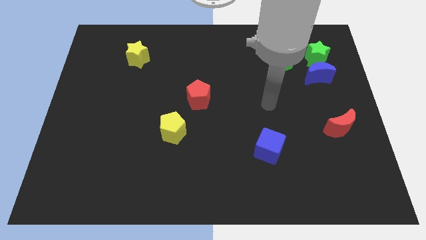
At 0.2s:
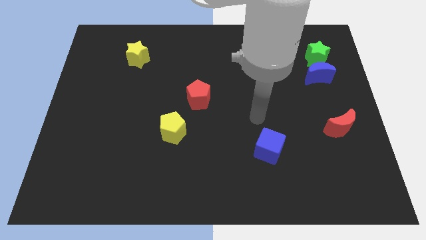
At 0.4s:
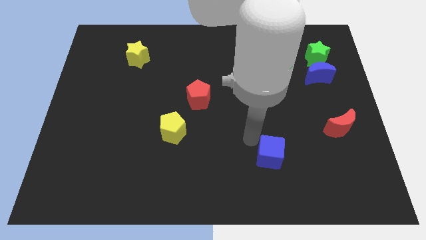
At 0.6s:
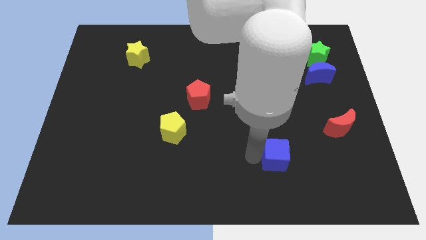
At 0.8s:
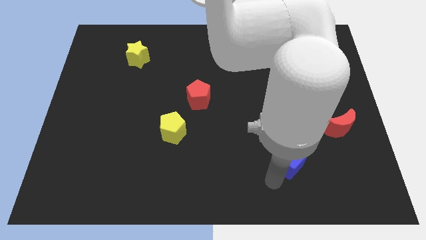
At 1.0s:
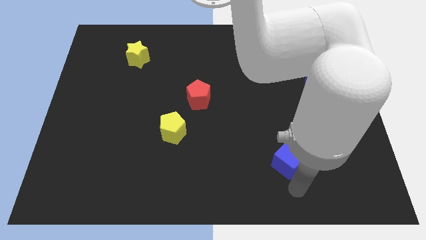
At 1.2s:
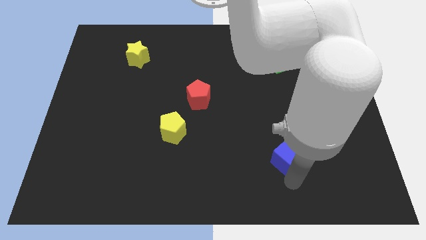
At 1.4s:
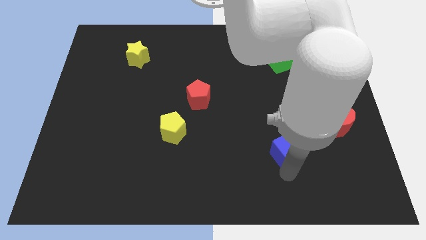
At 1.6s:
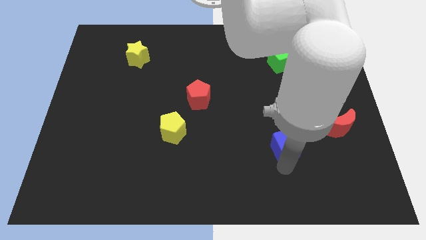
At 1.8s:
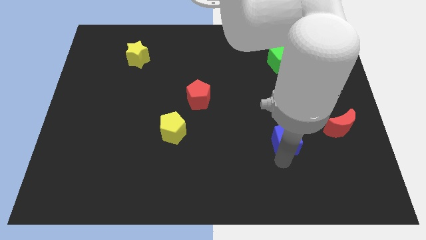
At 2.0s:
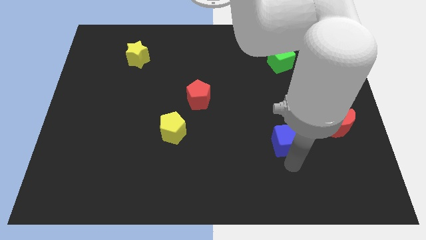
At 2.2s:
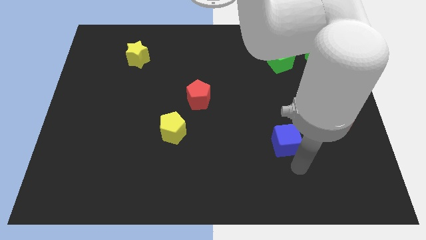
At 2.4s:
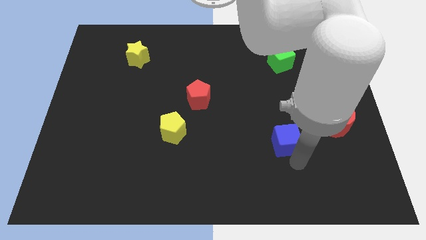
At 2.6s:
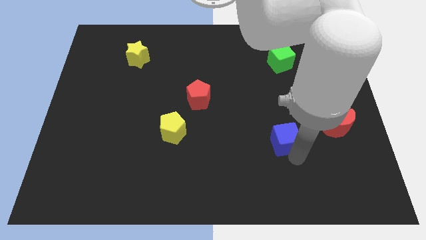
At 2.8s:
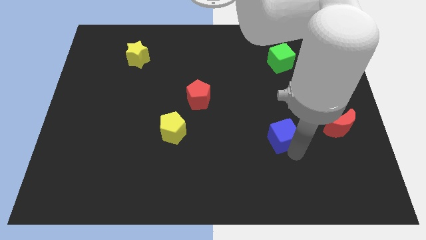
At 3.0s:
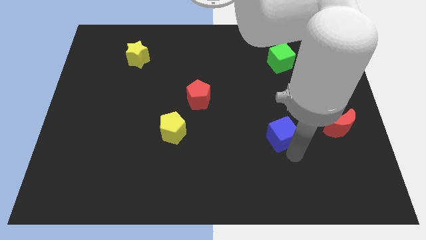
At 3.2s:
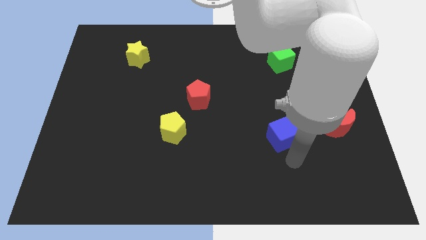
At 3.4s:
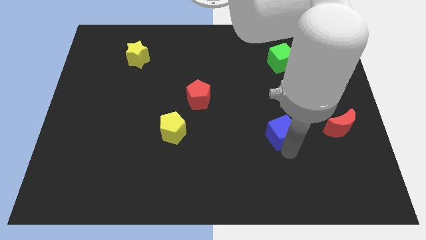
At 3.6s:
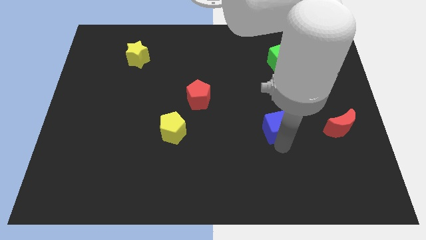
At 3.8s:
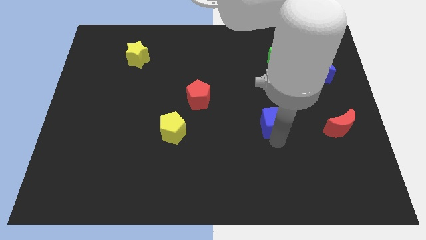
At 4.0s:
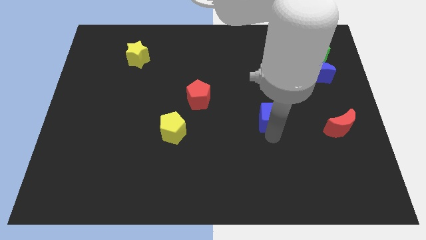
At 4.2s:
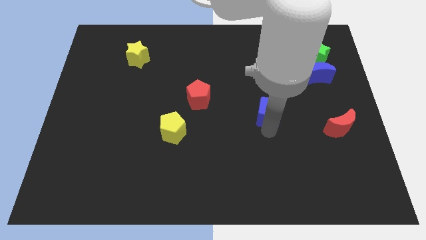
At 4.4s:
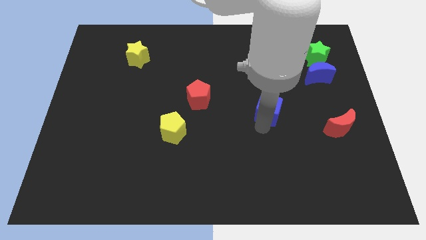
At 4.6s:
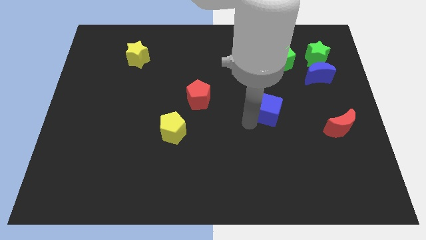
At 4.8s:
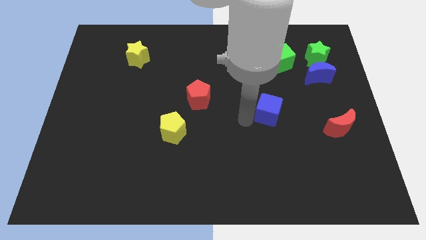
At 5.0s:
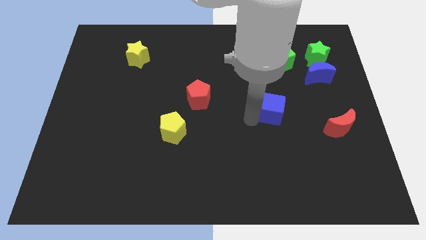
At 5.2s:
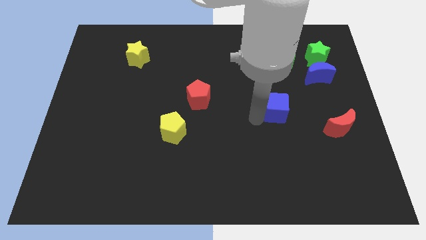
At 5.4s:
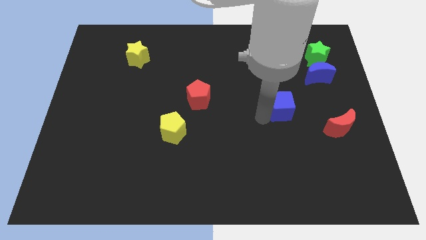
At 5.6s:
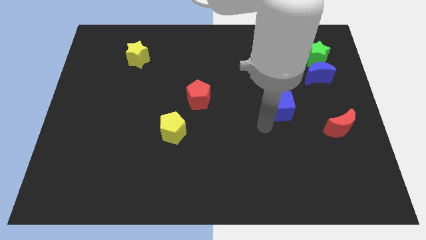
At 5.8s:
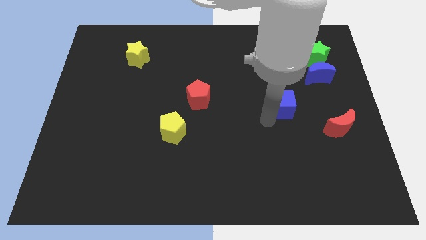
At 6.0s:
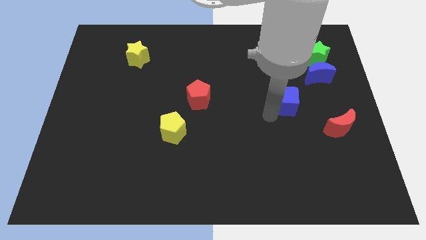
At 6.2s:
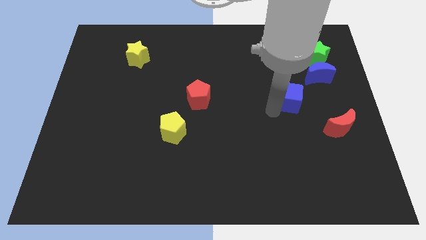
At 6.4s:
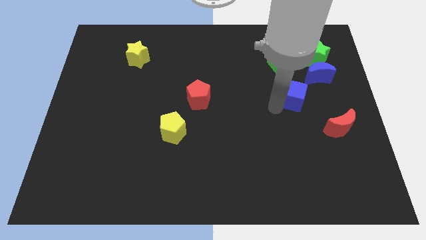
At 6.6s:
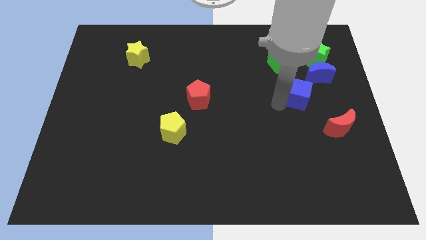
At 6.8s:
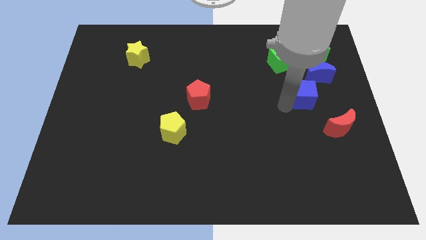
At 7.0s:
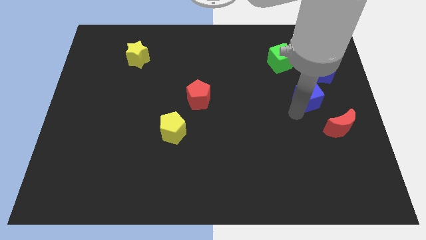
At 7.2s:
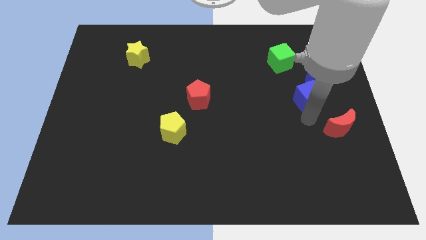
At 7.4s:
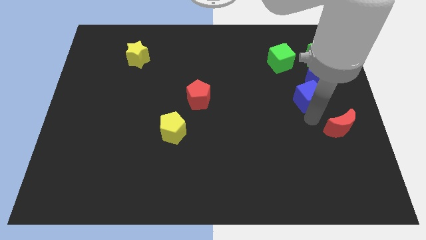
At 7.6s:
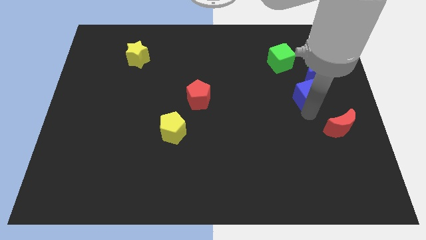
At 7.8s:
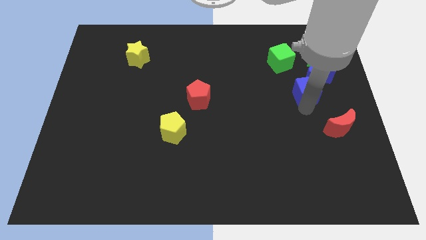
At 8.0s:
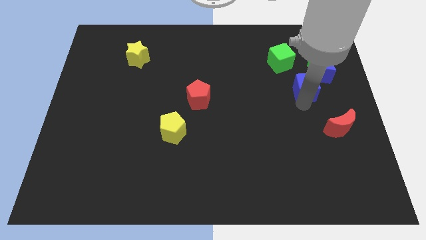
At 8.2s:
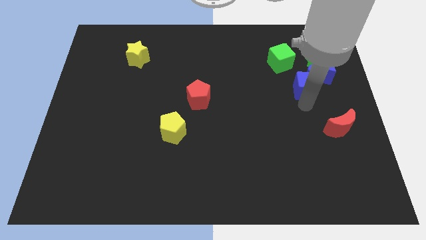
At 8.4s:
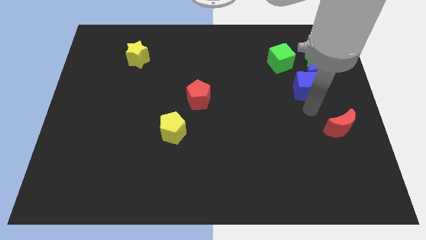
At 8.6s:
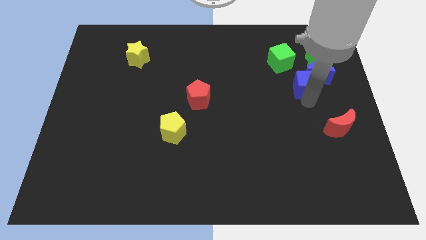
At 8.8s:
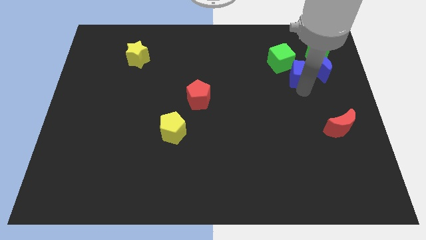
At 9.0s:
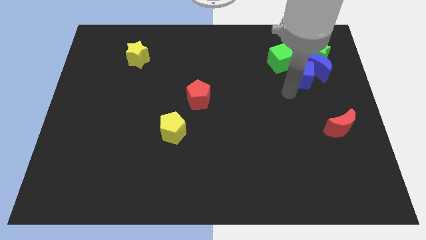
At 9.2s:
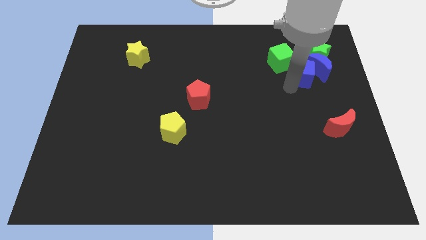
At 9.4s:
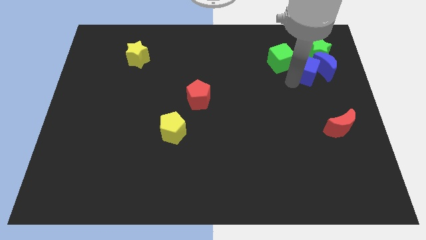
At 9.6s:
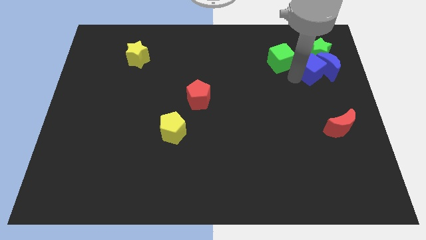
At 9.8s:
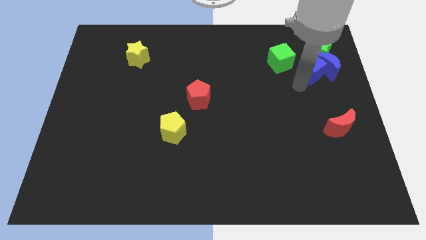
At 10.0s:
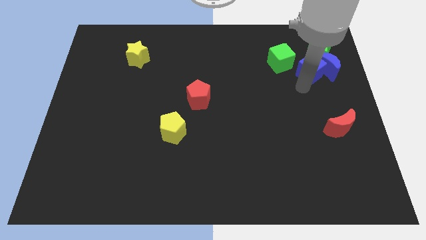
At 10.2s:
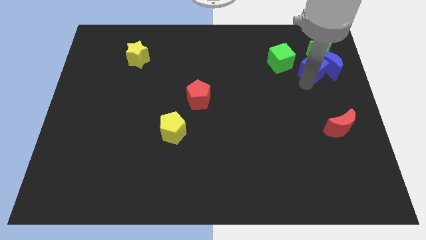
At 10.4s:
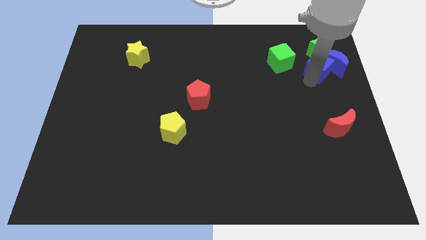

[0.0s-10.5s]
move the blue cube to the green star

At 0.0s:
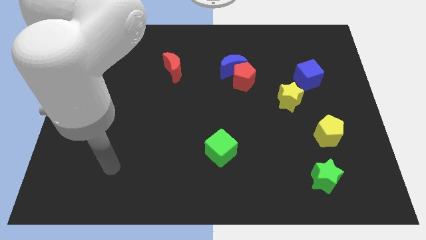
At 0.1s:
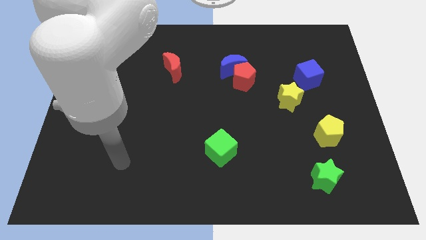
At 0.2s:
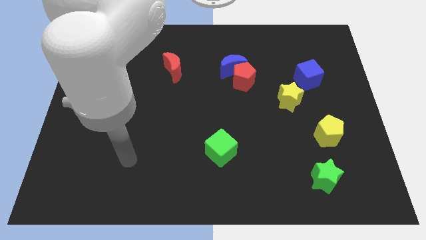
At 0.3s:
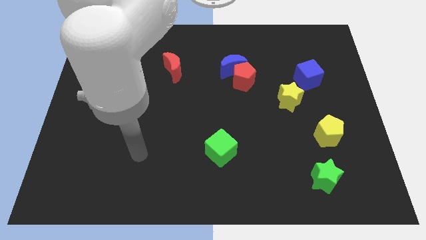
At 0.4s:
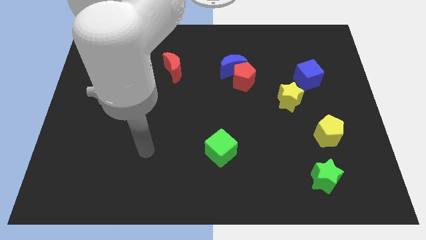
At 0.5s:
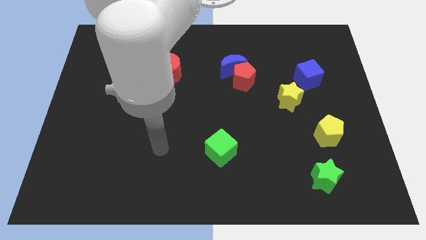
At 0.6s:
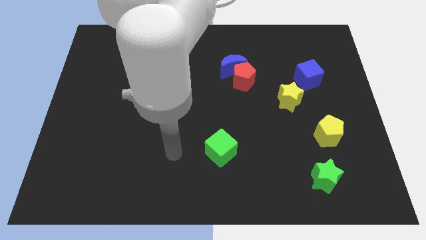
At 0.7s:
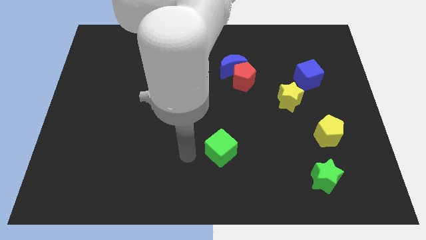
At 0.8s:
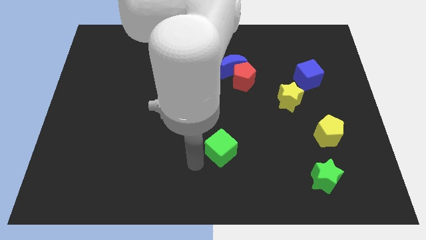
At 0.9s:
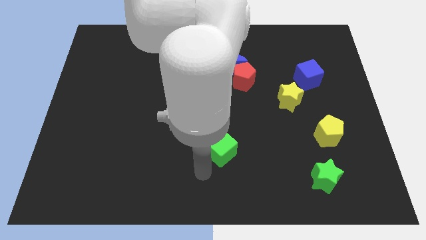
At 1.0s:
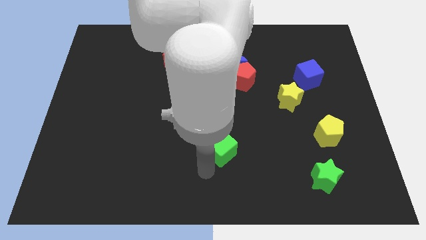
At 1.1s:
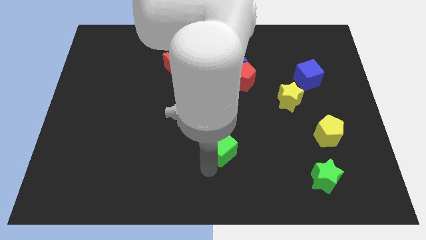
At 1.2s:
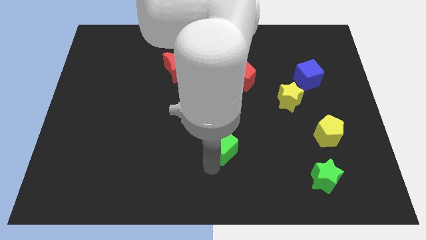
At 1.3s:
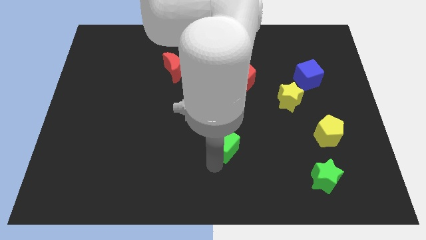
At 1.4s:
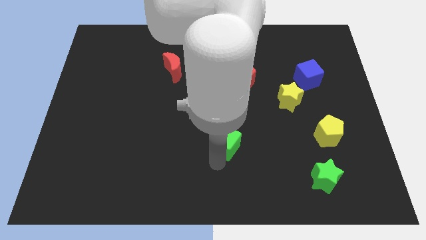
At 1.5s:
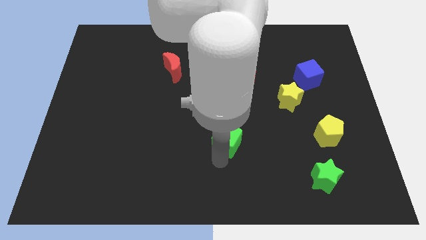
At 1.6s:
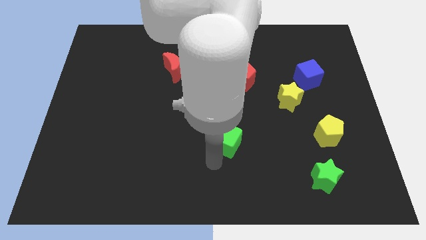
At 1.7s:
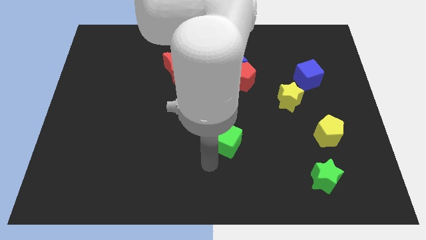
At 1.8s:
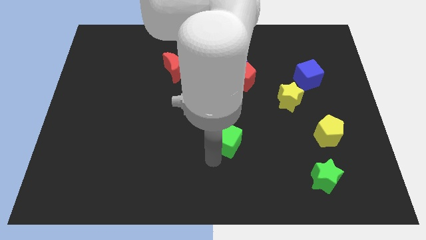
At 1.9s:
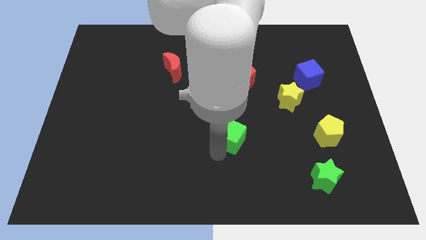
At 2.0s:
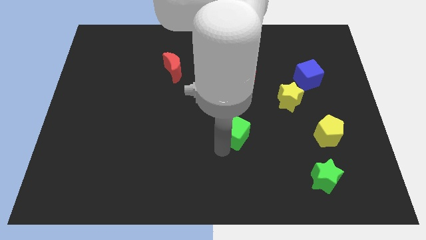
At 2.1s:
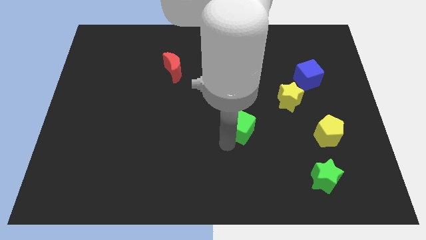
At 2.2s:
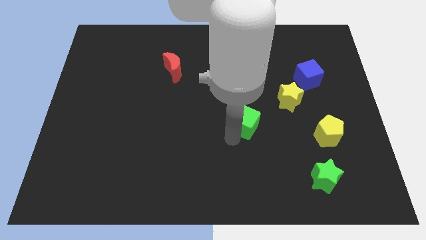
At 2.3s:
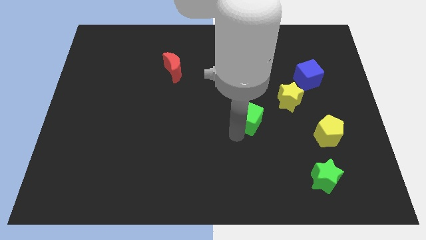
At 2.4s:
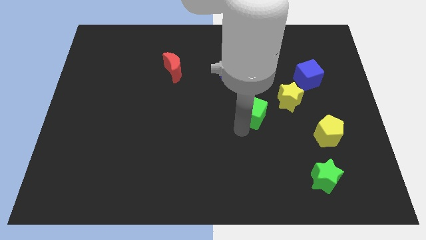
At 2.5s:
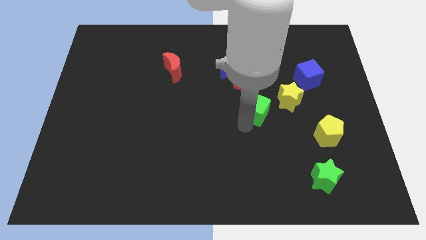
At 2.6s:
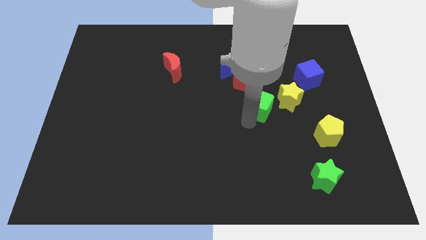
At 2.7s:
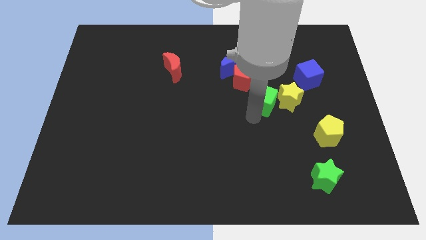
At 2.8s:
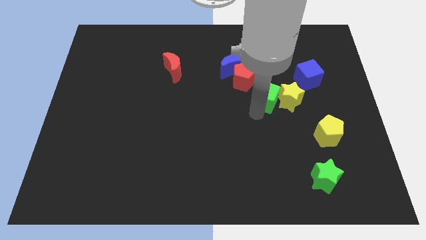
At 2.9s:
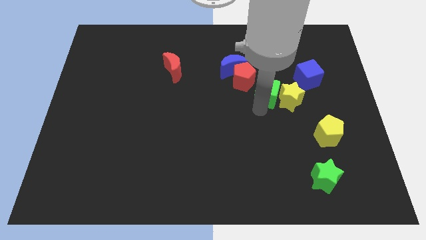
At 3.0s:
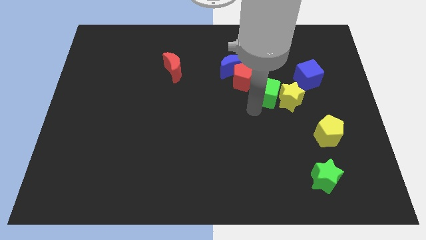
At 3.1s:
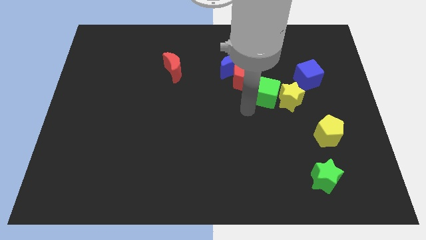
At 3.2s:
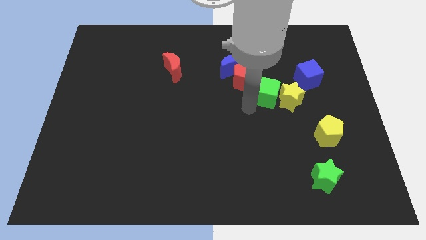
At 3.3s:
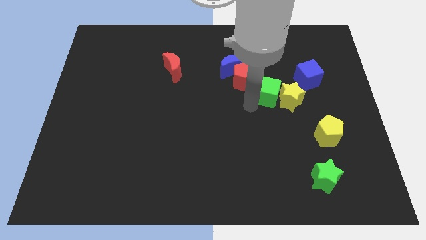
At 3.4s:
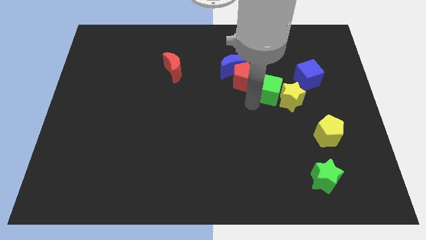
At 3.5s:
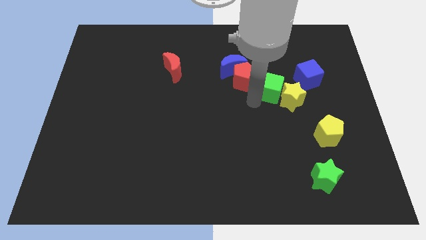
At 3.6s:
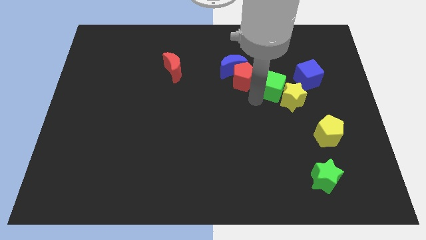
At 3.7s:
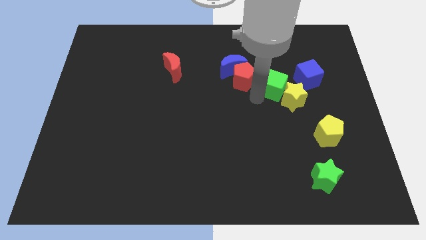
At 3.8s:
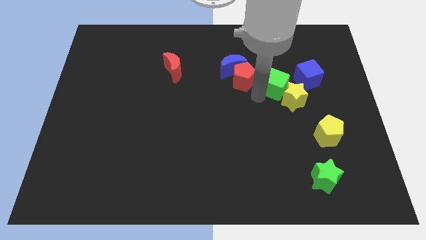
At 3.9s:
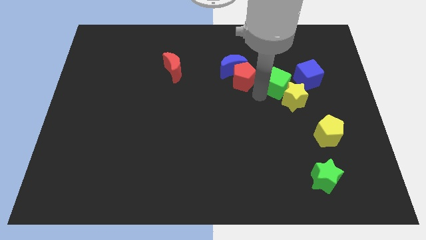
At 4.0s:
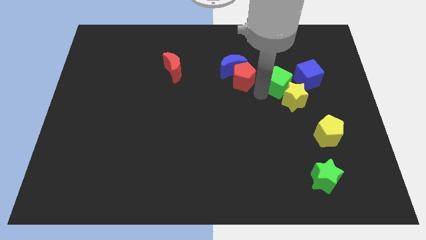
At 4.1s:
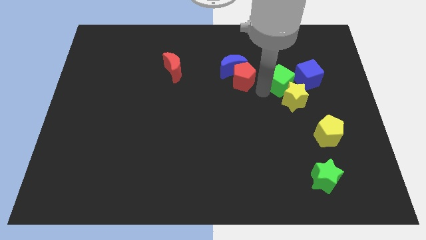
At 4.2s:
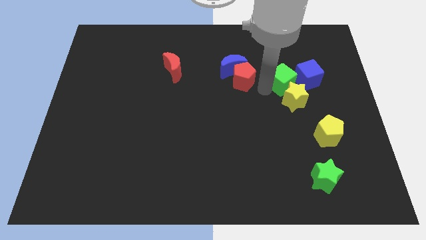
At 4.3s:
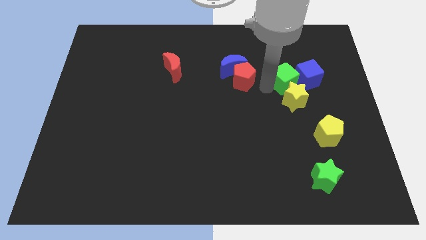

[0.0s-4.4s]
put the green cube close to the blue cube
